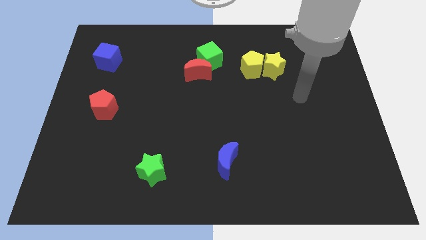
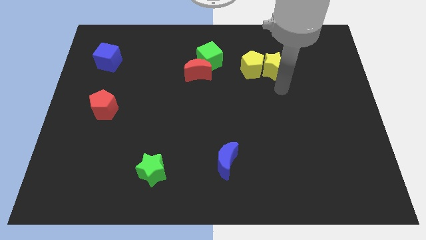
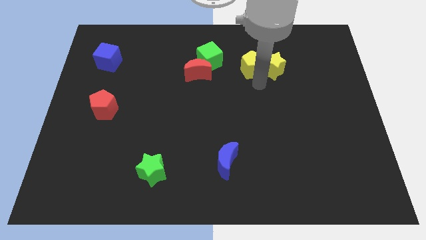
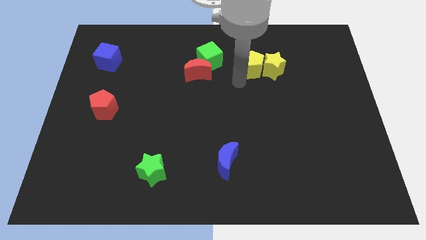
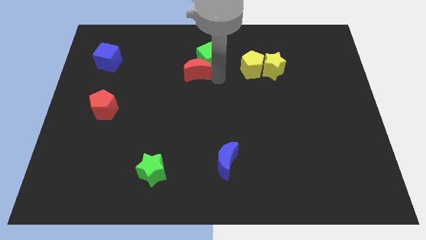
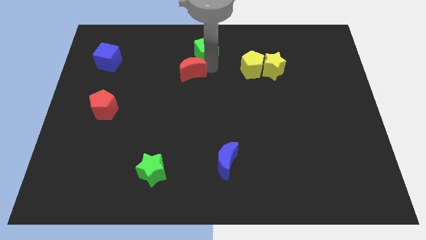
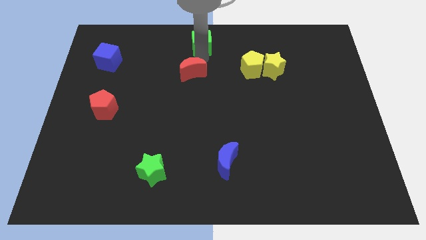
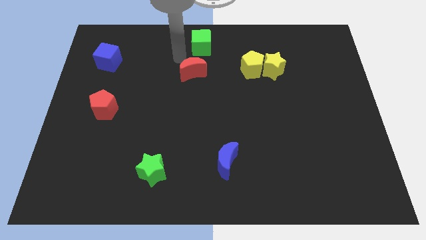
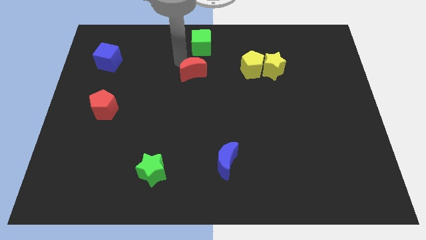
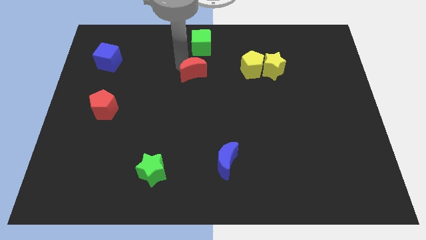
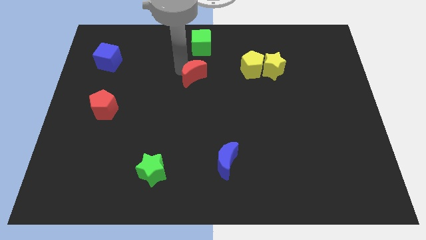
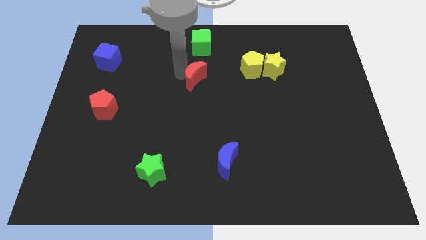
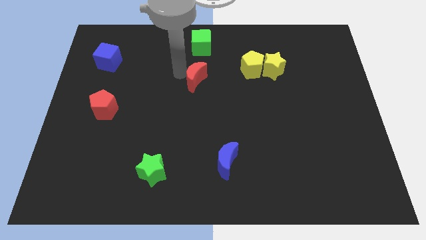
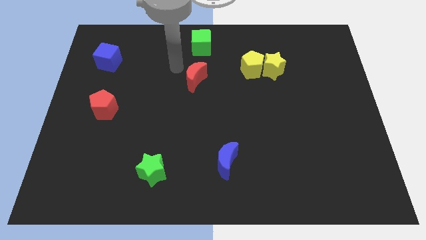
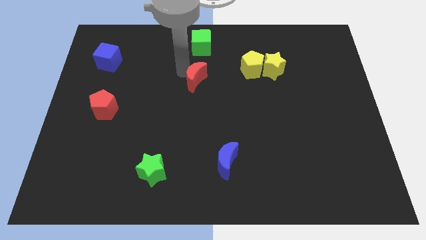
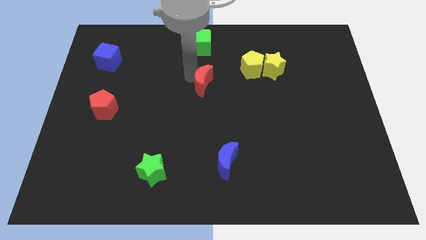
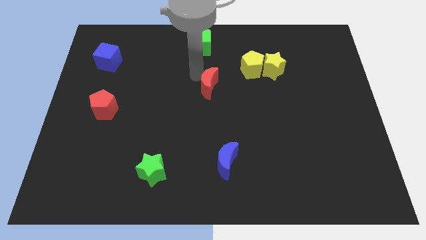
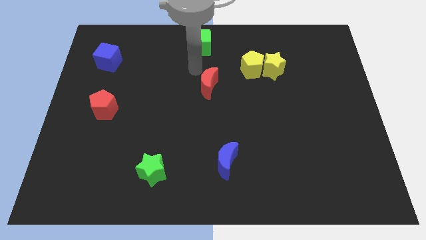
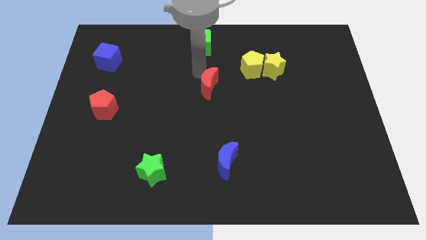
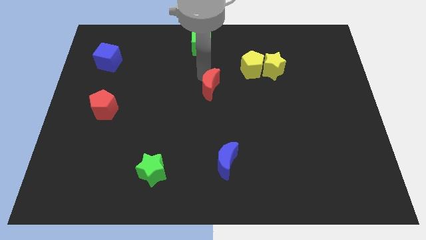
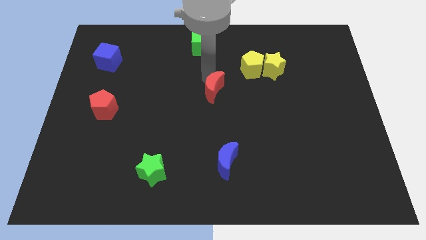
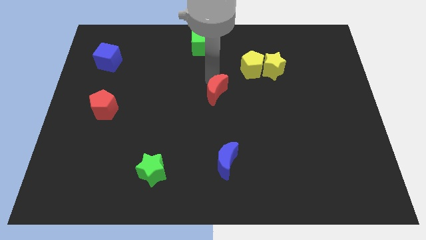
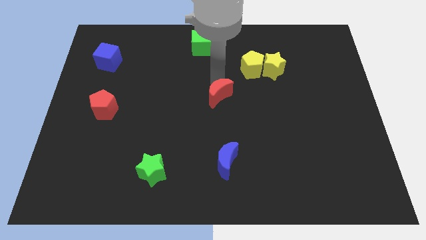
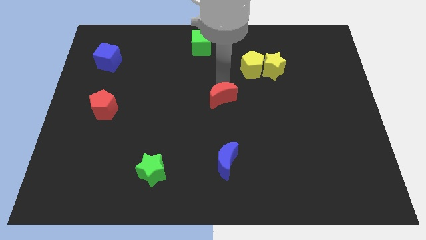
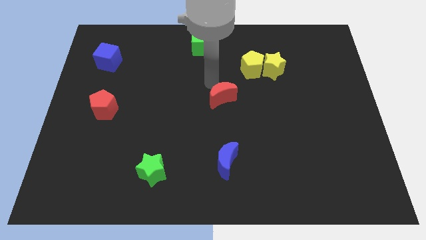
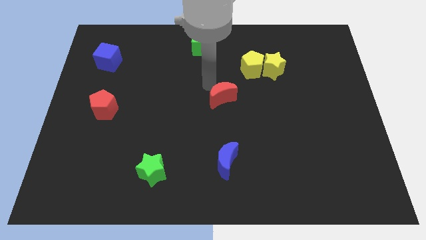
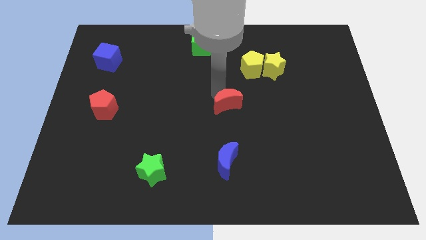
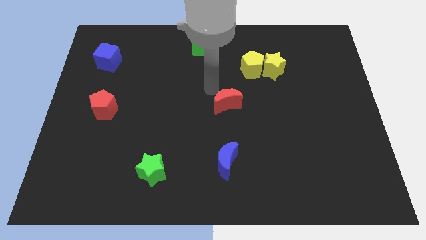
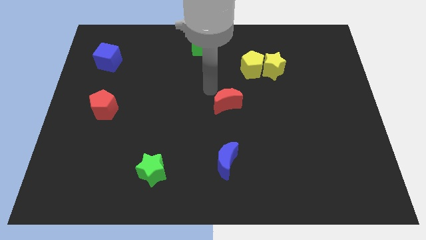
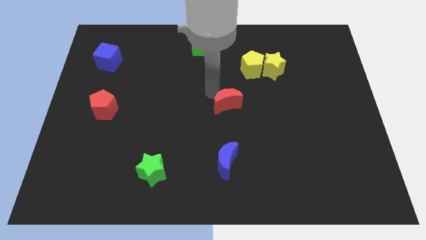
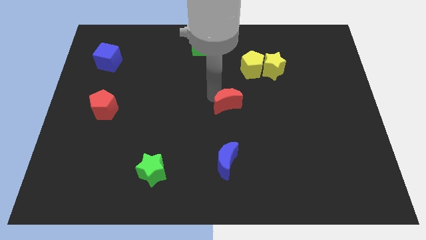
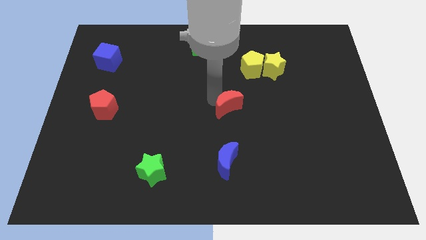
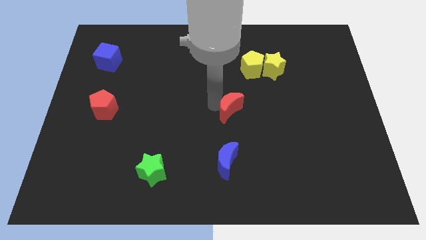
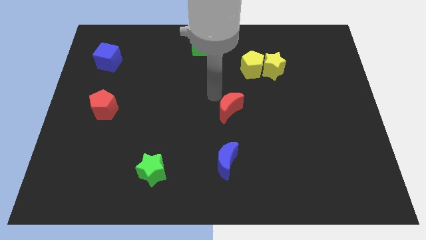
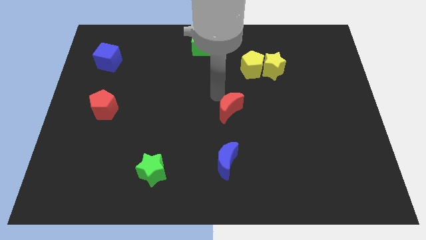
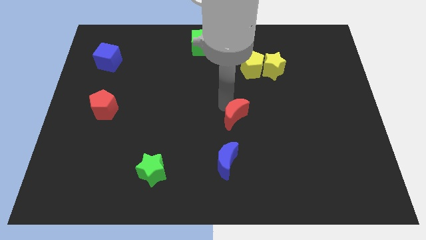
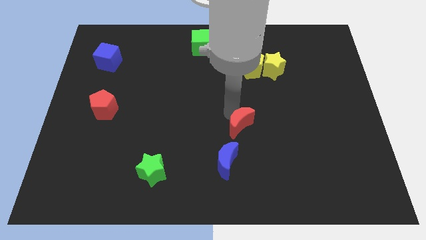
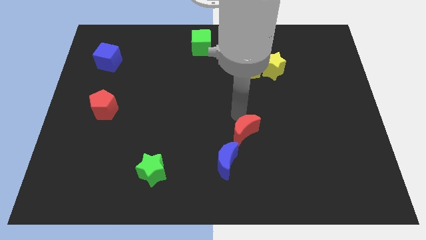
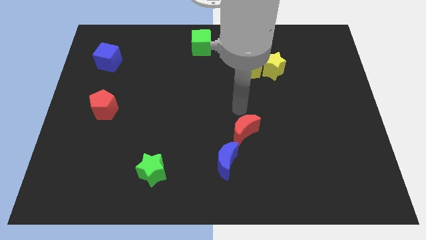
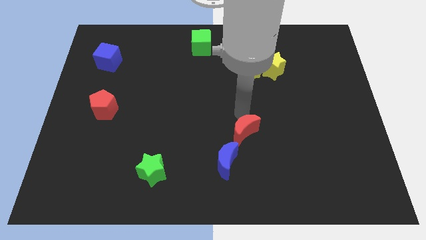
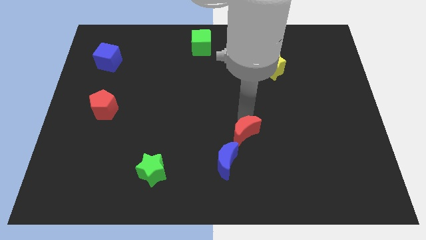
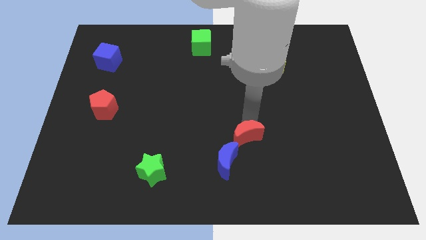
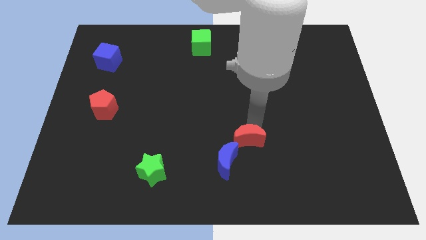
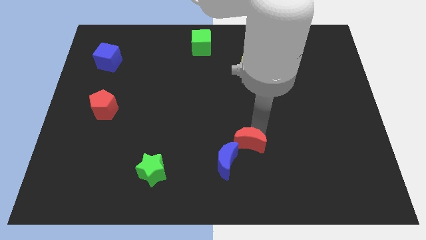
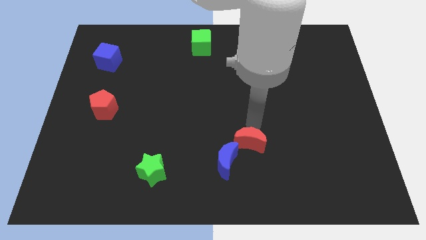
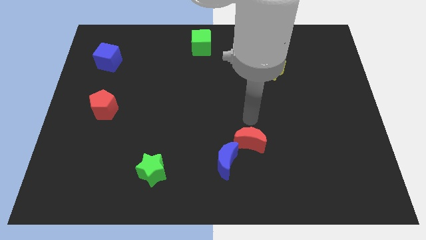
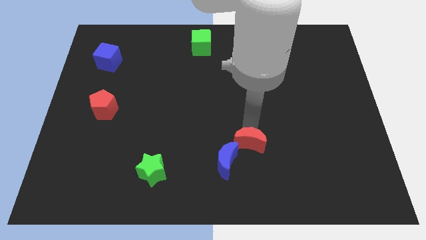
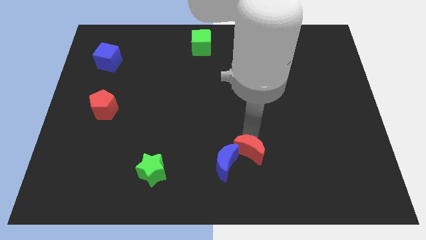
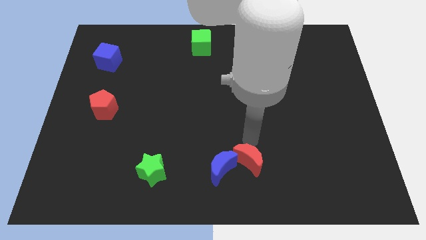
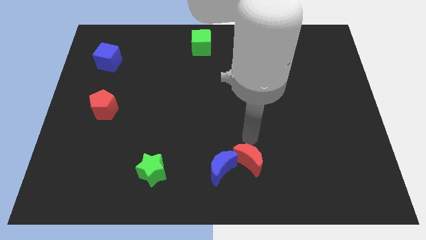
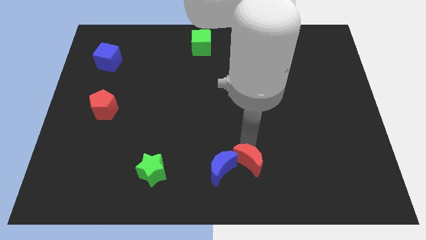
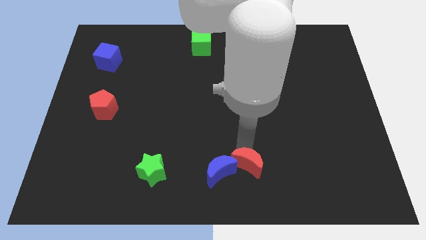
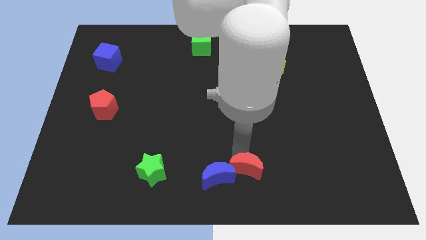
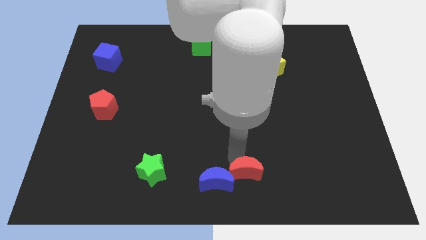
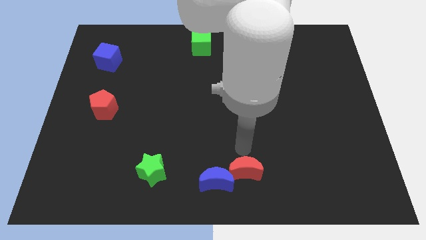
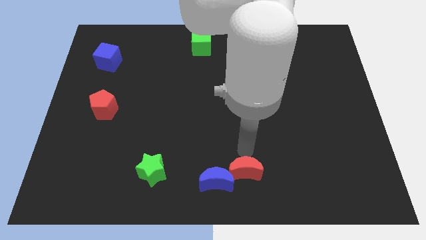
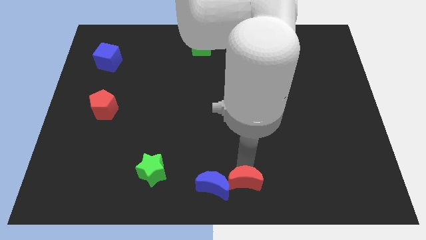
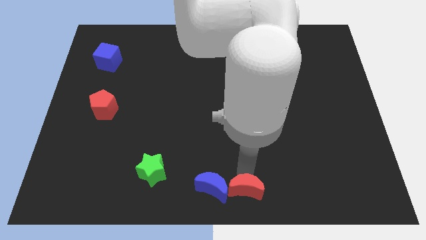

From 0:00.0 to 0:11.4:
push the red moon diagonally down and to the right of the blue moon

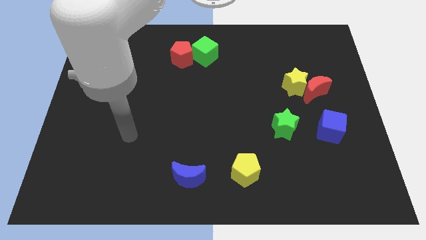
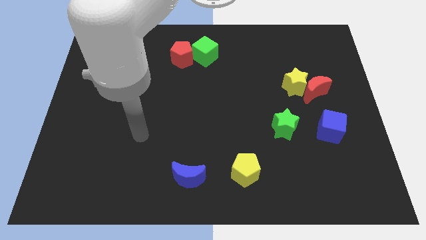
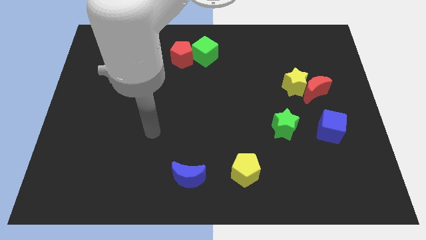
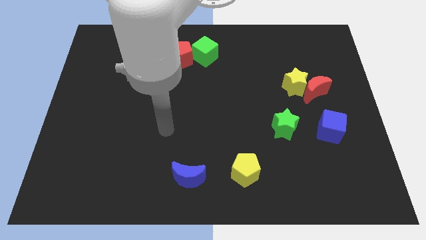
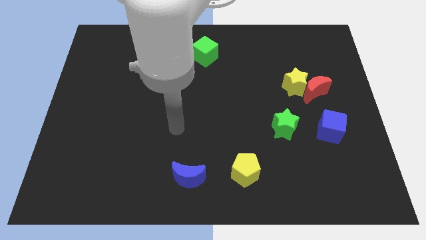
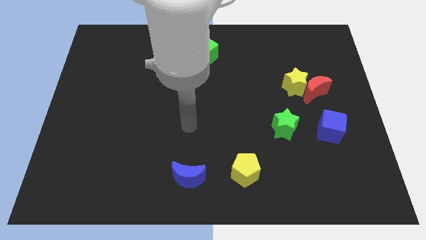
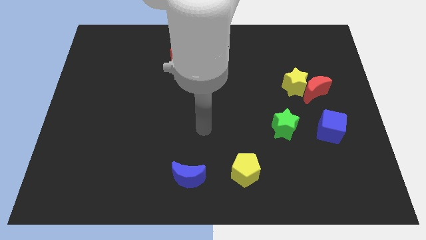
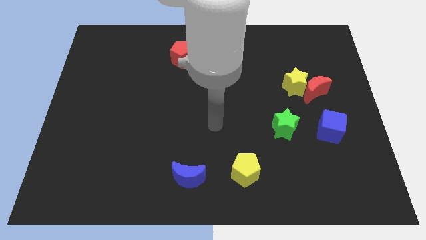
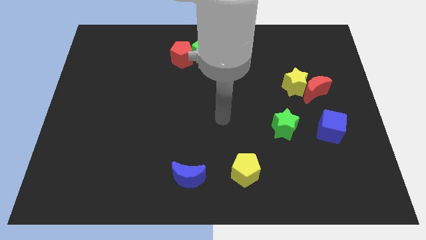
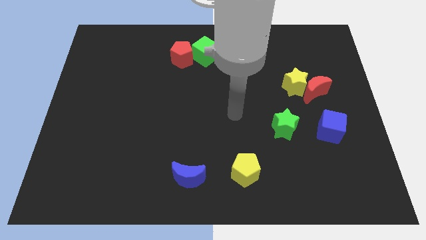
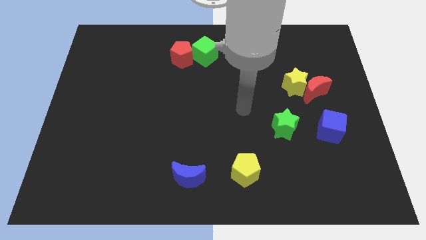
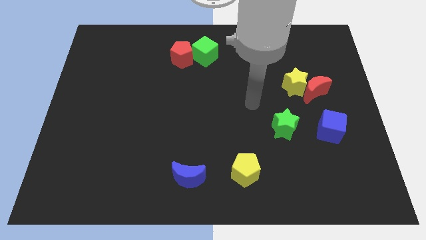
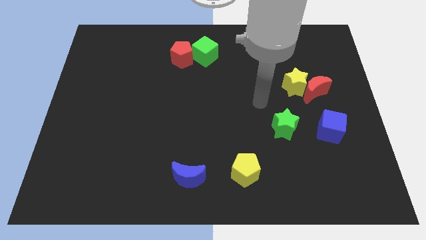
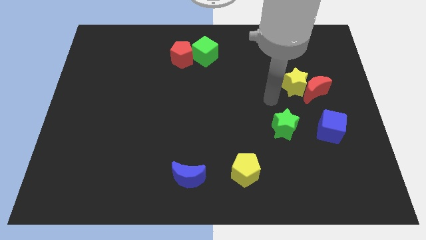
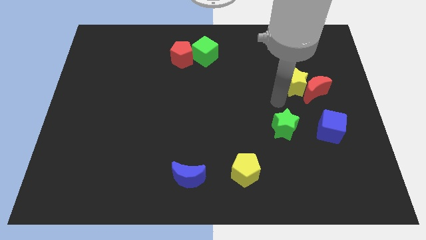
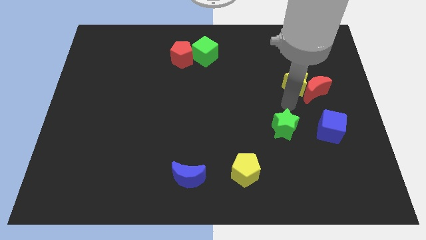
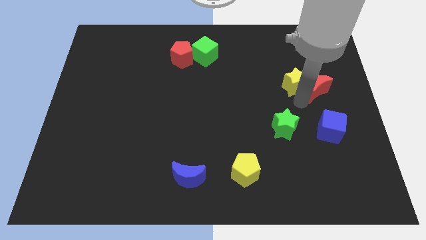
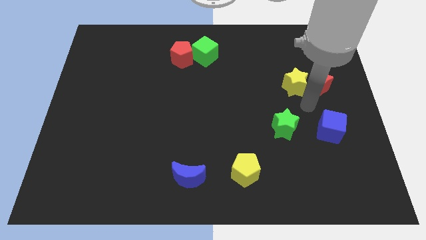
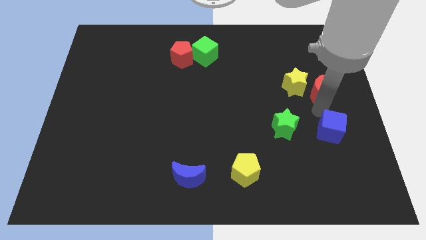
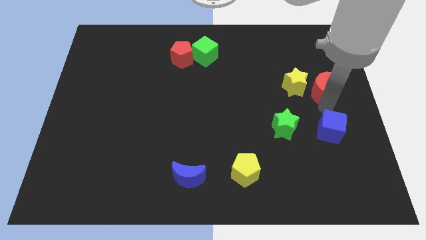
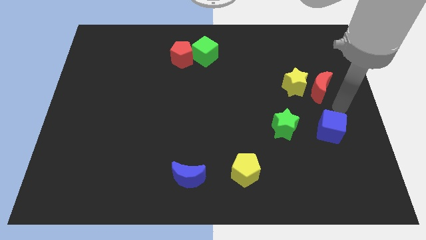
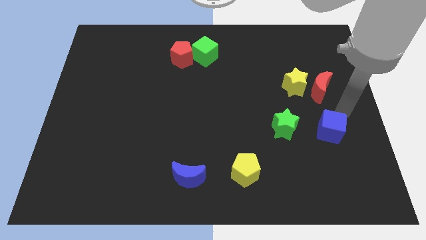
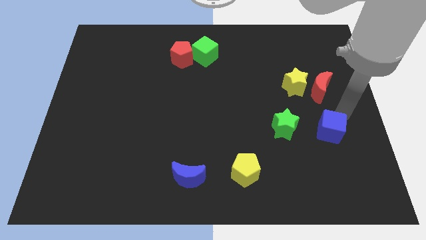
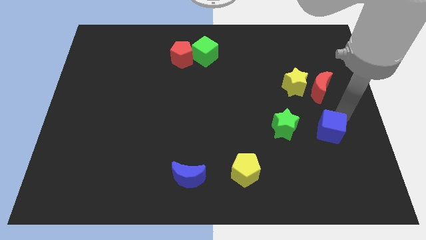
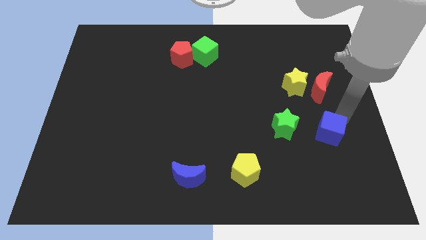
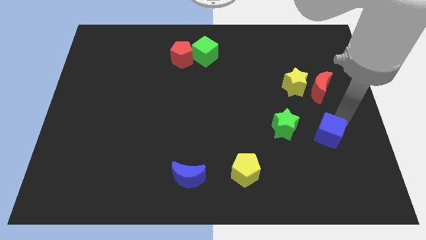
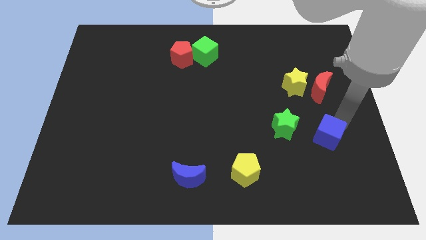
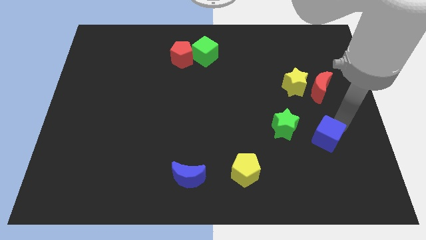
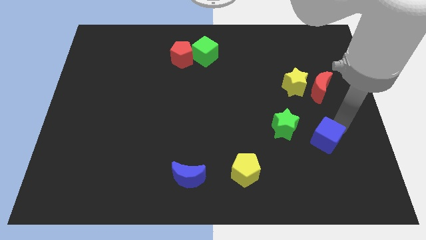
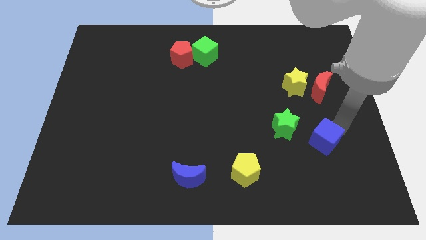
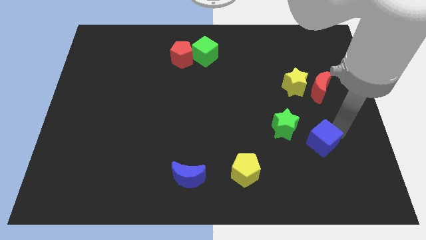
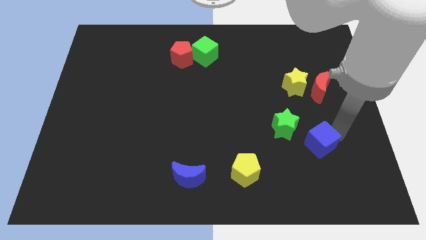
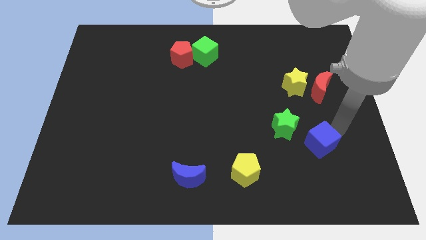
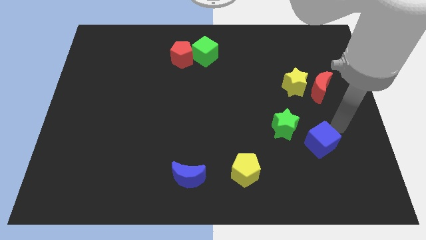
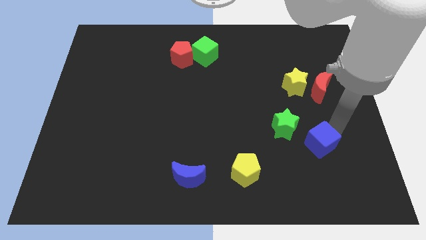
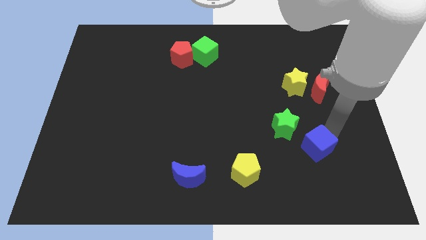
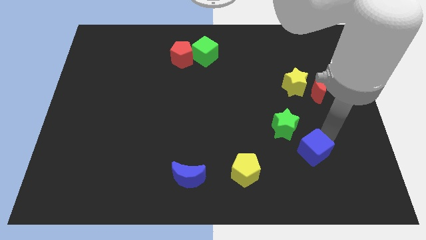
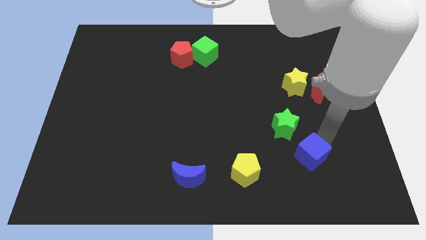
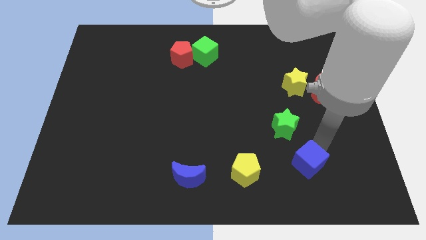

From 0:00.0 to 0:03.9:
push the blue cube to the bottom of the green star
